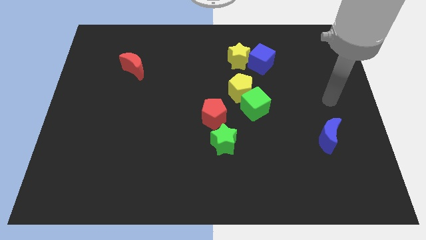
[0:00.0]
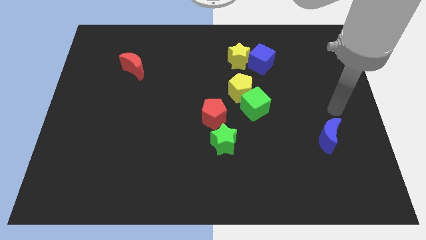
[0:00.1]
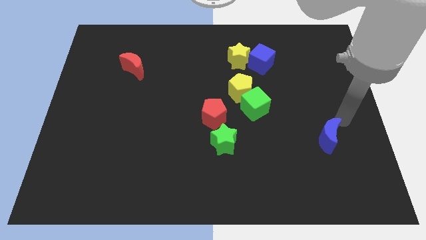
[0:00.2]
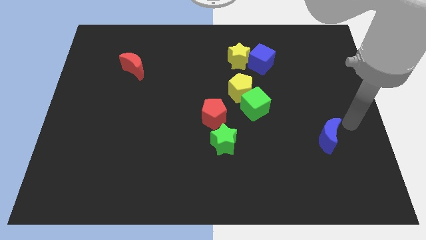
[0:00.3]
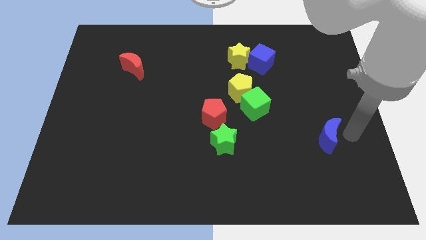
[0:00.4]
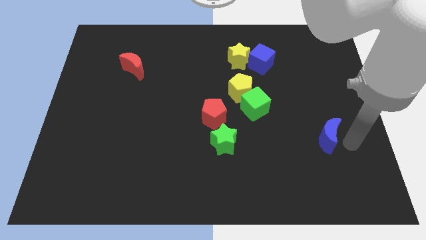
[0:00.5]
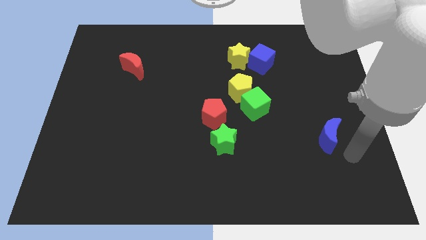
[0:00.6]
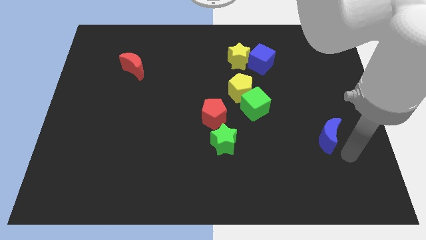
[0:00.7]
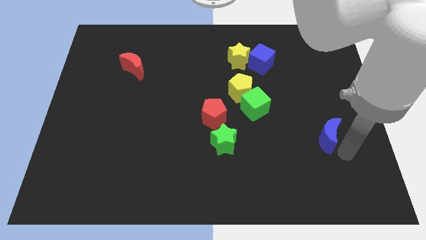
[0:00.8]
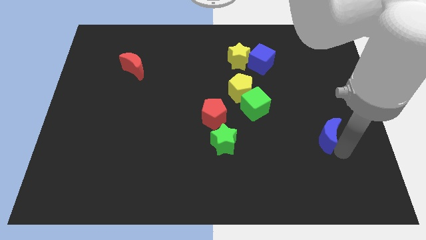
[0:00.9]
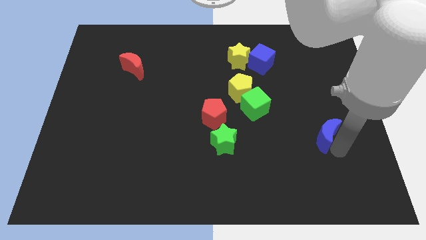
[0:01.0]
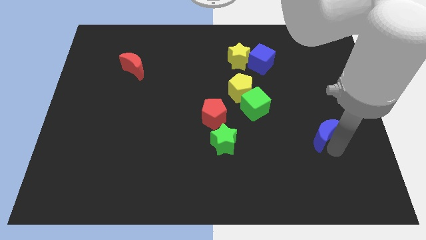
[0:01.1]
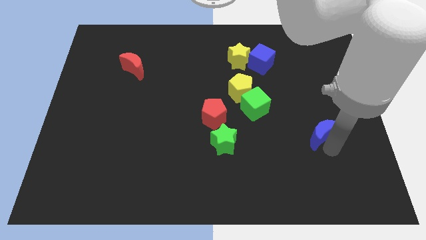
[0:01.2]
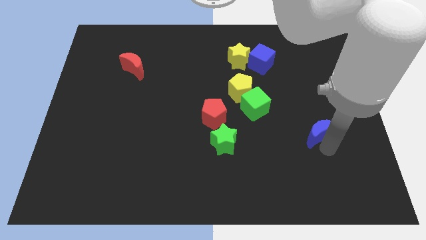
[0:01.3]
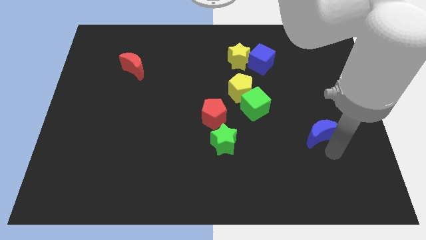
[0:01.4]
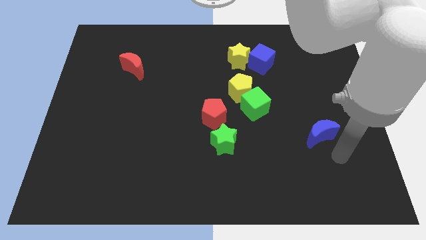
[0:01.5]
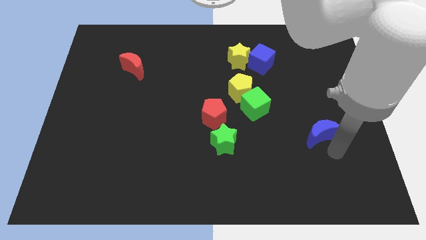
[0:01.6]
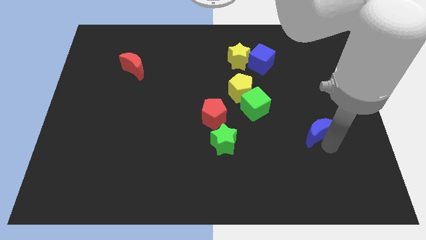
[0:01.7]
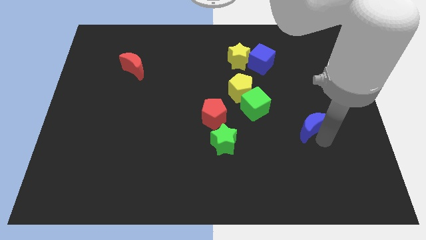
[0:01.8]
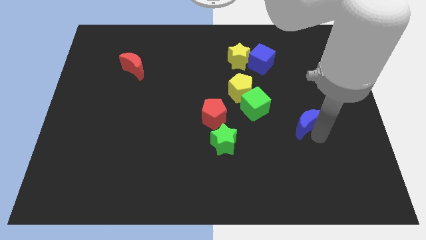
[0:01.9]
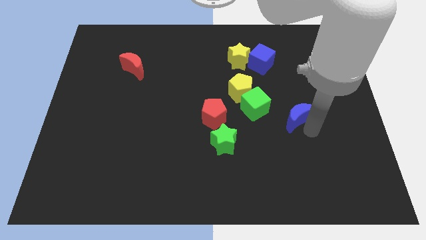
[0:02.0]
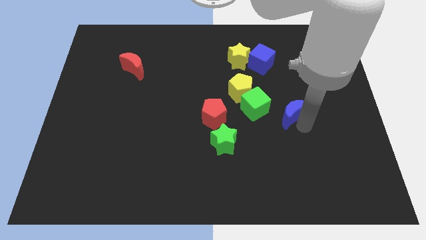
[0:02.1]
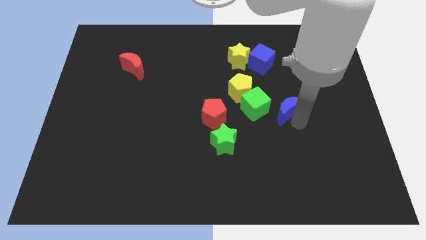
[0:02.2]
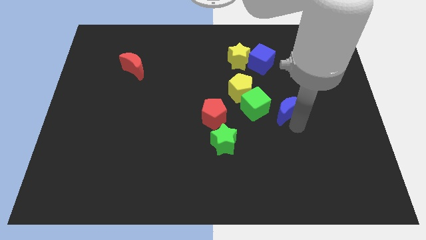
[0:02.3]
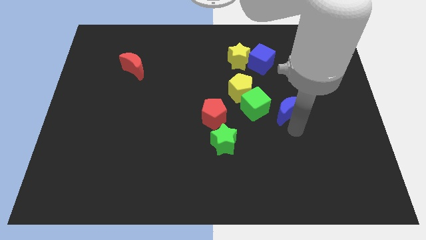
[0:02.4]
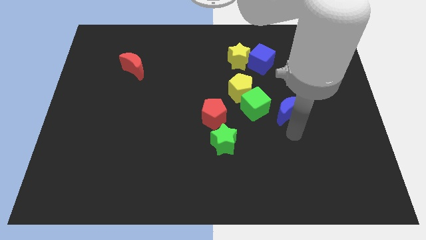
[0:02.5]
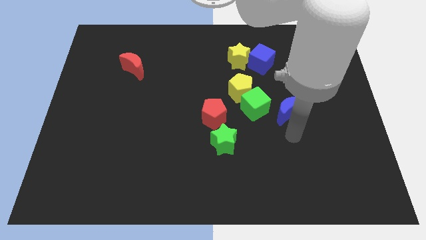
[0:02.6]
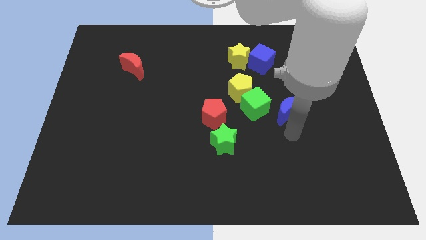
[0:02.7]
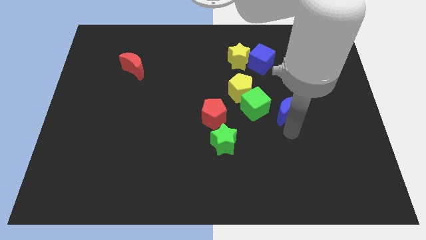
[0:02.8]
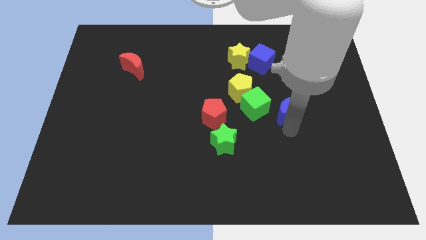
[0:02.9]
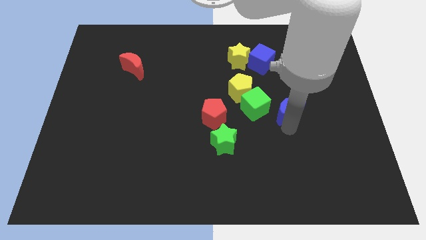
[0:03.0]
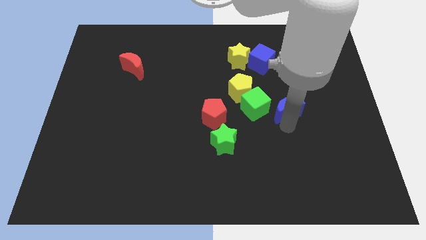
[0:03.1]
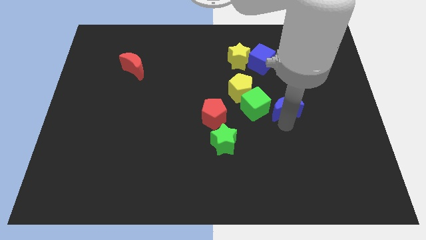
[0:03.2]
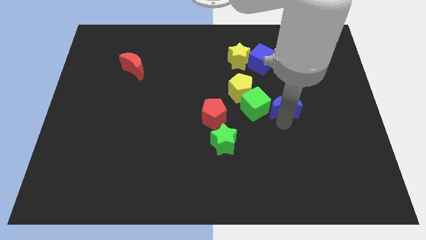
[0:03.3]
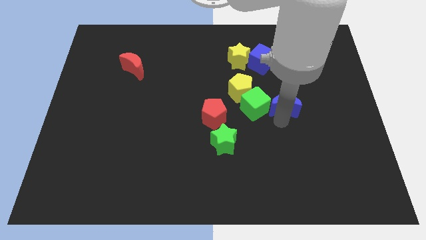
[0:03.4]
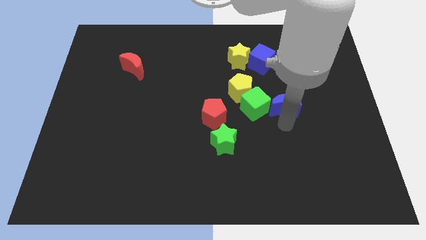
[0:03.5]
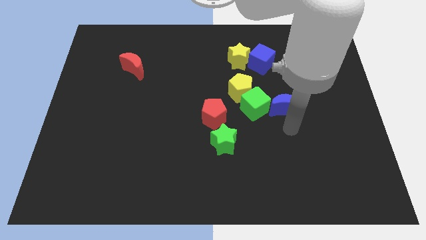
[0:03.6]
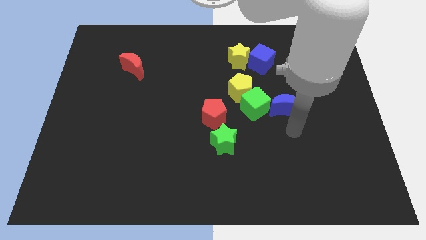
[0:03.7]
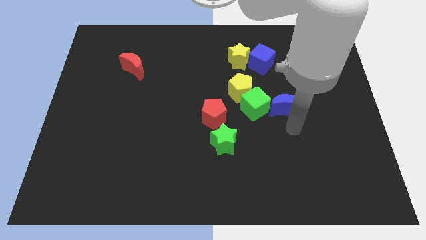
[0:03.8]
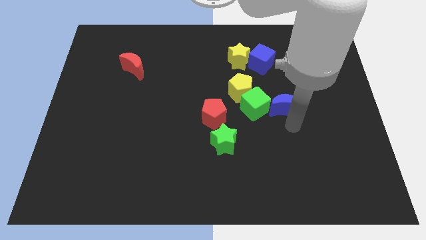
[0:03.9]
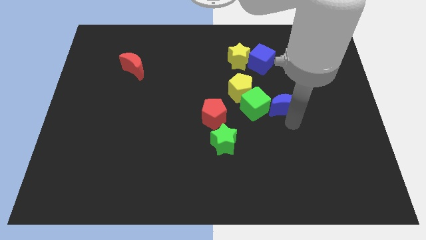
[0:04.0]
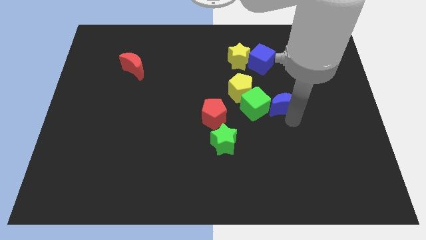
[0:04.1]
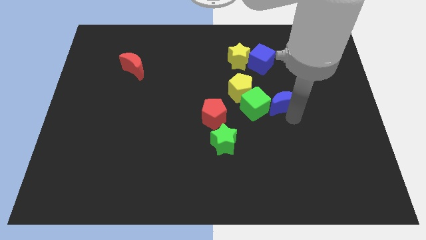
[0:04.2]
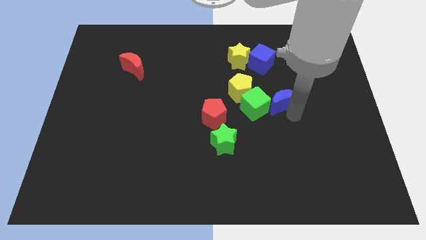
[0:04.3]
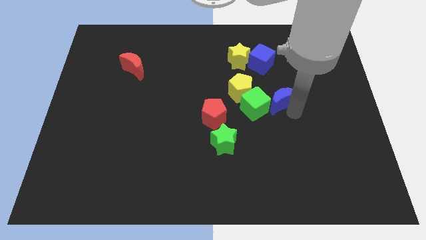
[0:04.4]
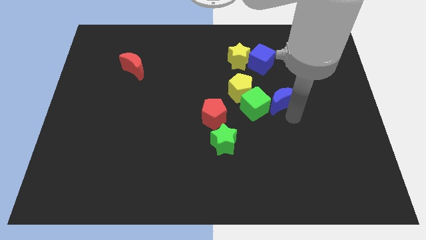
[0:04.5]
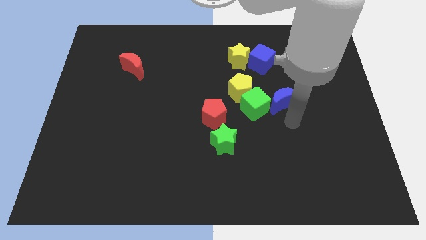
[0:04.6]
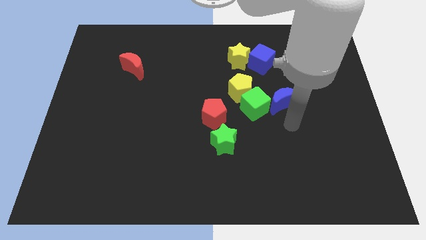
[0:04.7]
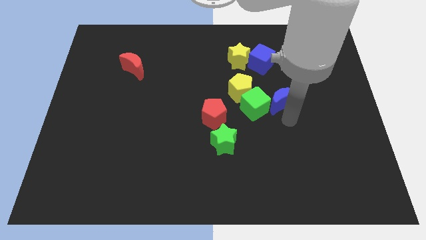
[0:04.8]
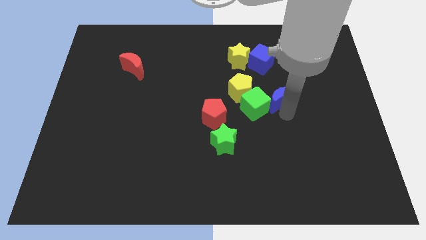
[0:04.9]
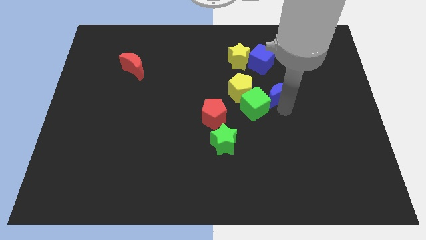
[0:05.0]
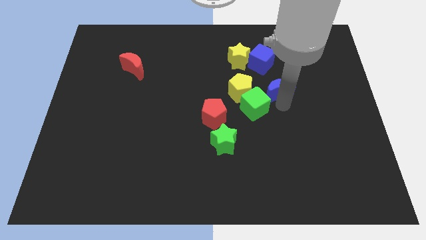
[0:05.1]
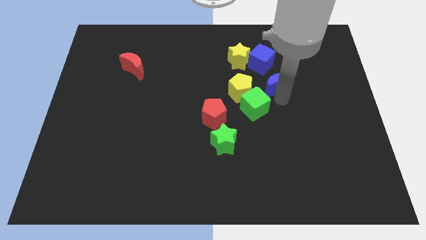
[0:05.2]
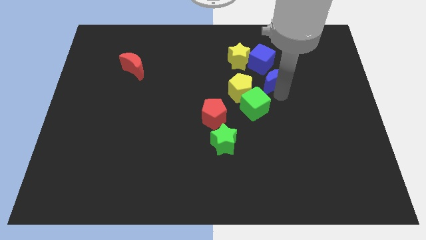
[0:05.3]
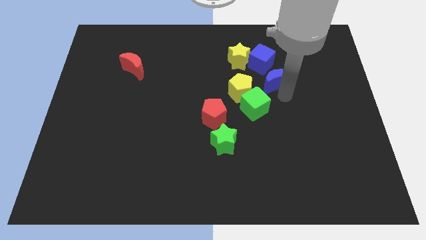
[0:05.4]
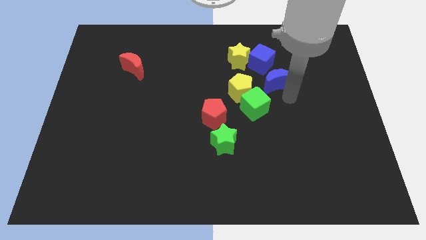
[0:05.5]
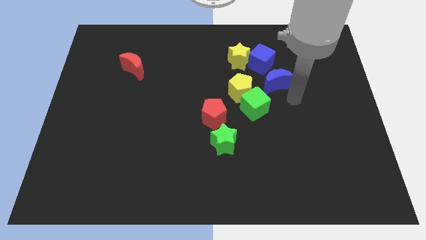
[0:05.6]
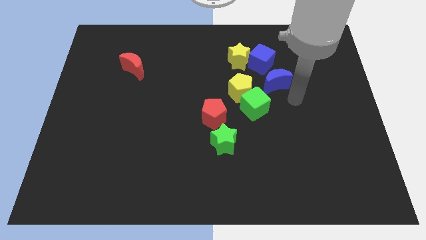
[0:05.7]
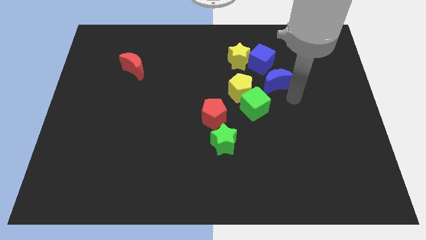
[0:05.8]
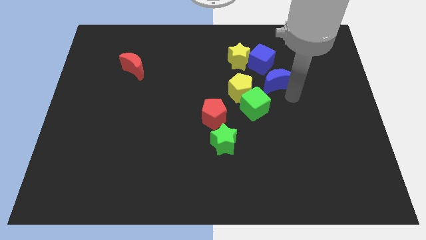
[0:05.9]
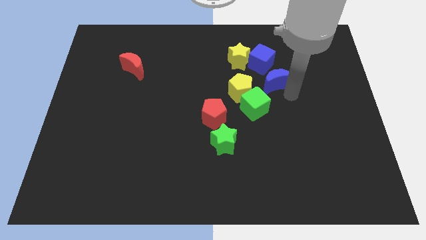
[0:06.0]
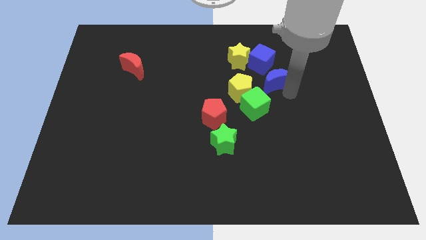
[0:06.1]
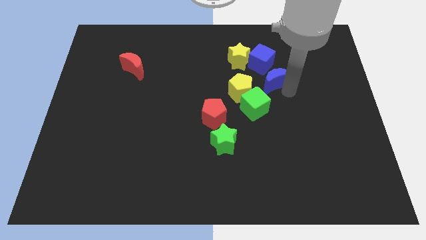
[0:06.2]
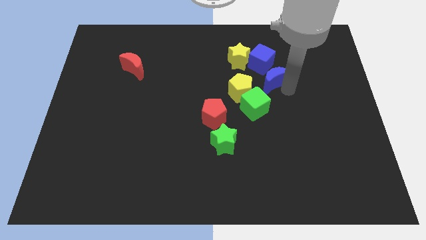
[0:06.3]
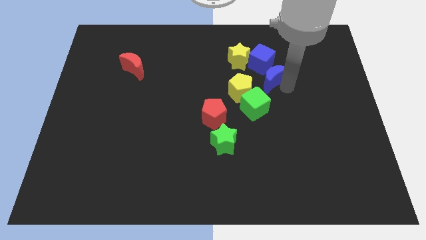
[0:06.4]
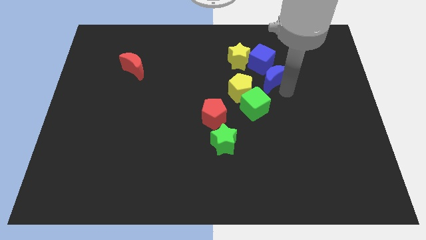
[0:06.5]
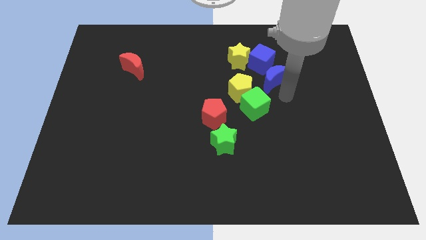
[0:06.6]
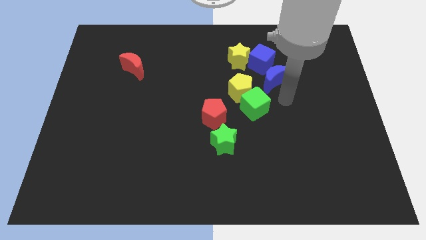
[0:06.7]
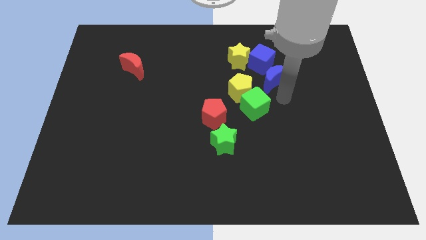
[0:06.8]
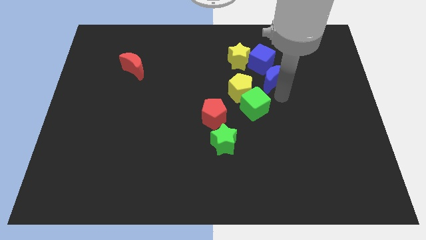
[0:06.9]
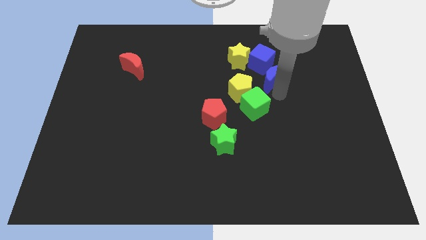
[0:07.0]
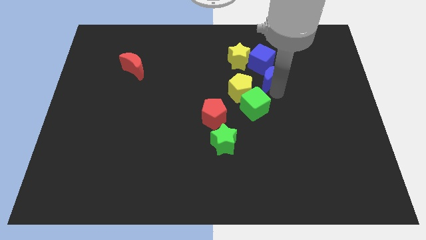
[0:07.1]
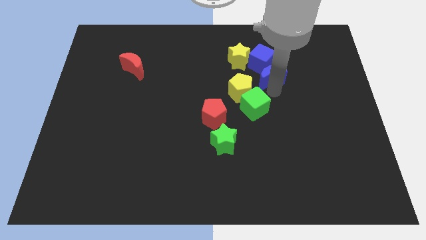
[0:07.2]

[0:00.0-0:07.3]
push the blue moon to the blue cube
